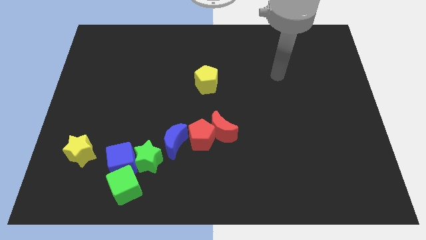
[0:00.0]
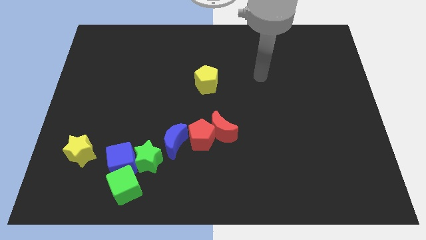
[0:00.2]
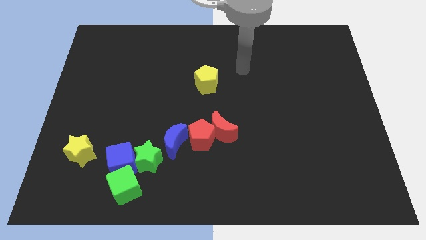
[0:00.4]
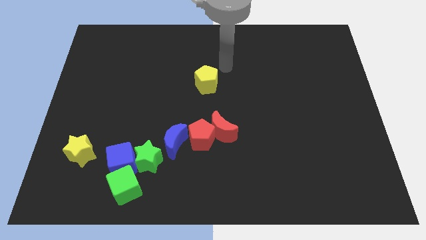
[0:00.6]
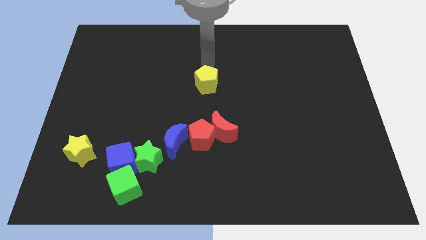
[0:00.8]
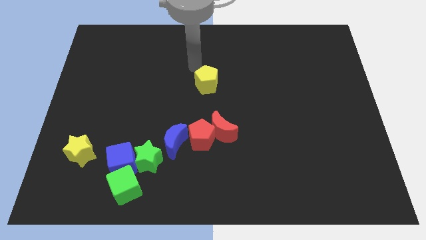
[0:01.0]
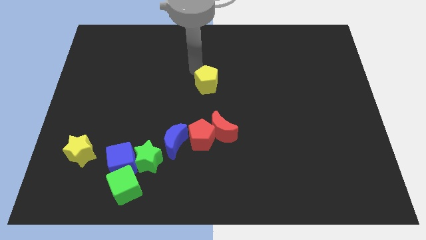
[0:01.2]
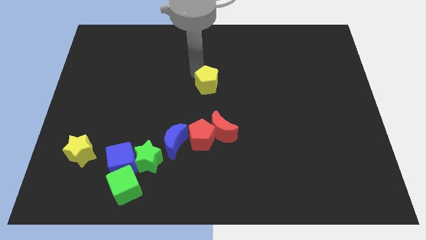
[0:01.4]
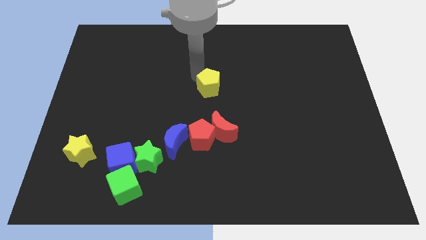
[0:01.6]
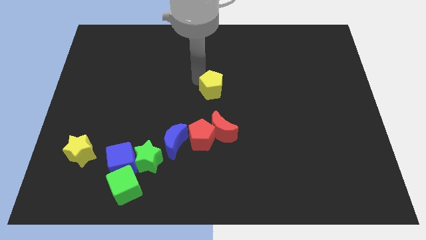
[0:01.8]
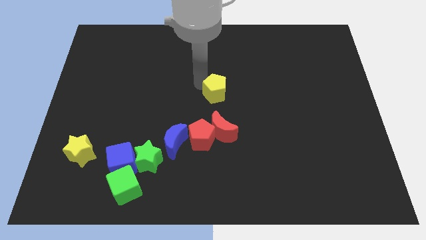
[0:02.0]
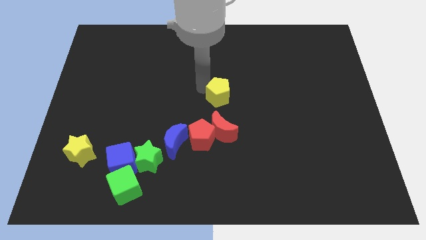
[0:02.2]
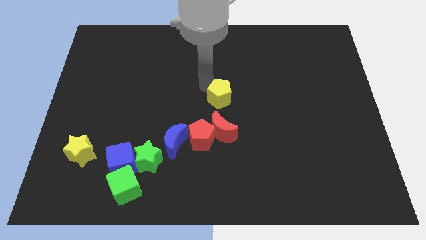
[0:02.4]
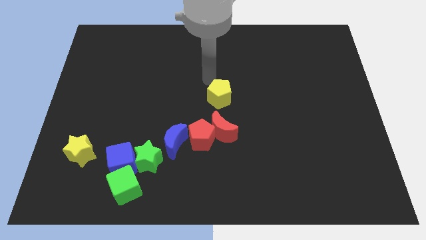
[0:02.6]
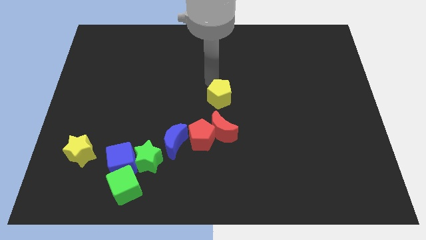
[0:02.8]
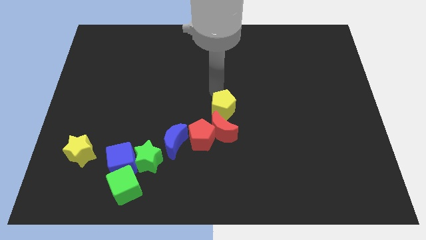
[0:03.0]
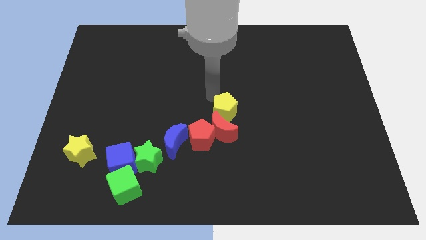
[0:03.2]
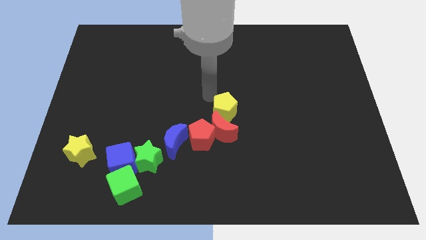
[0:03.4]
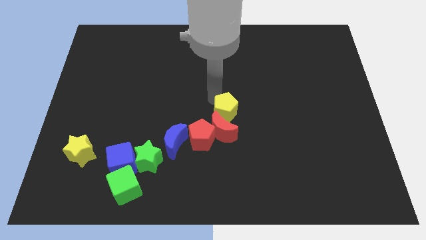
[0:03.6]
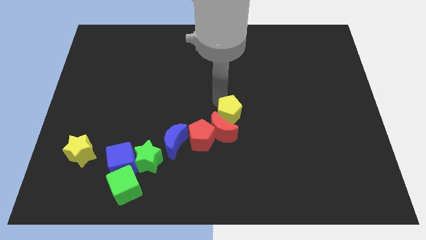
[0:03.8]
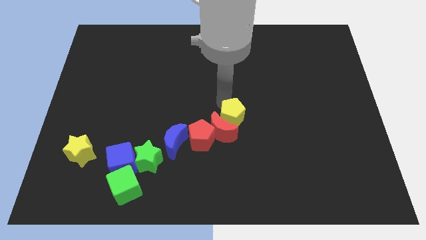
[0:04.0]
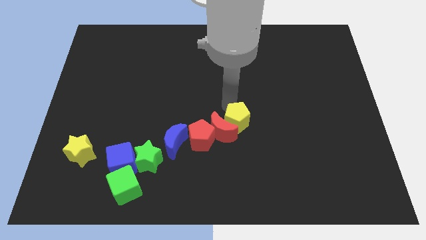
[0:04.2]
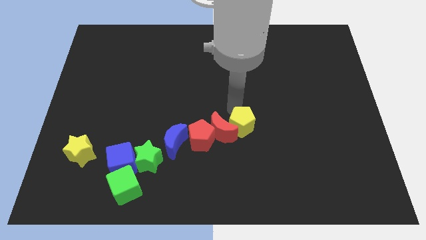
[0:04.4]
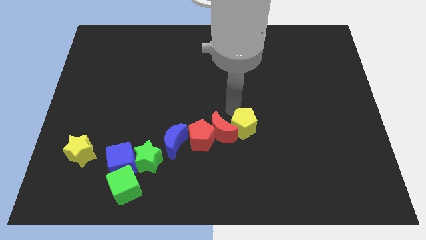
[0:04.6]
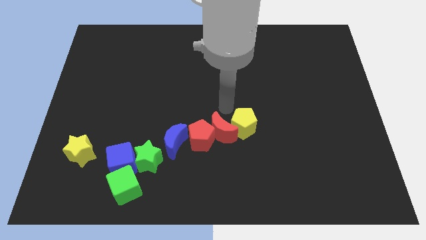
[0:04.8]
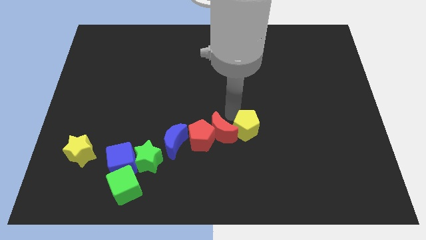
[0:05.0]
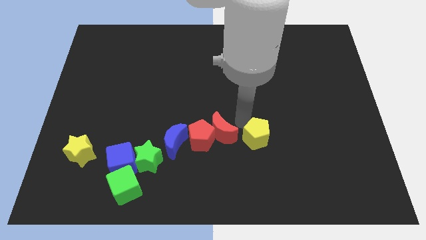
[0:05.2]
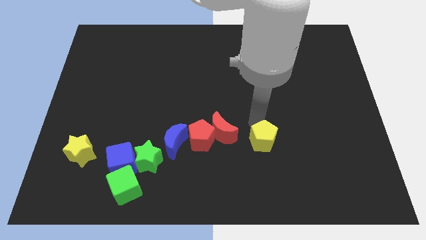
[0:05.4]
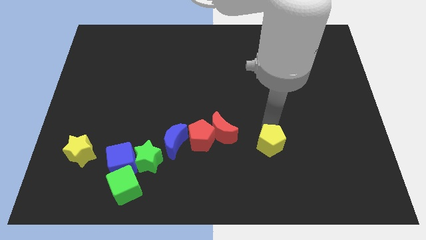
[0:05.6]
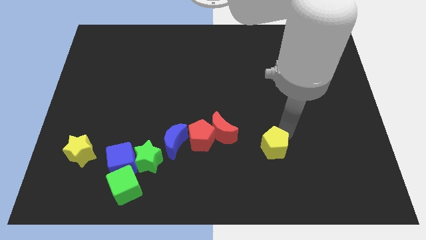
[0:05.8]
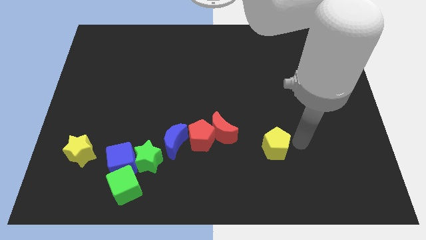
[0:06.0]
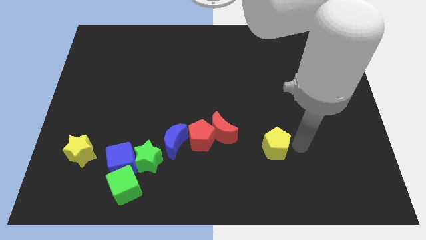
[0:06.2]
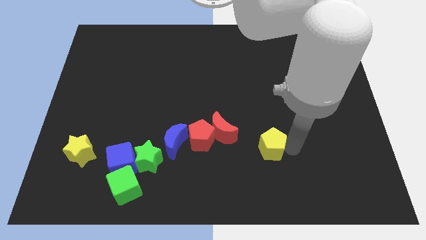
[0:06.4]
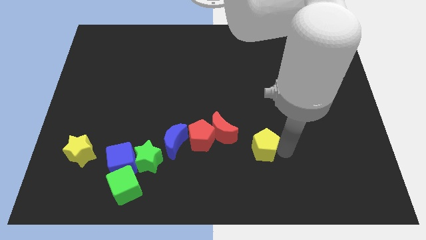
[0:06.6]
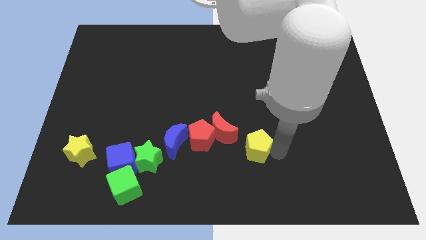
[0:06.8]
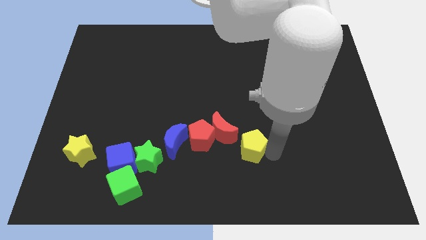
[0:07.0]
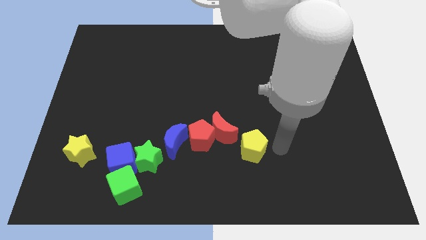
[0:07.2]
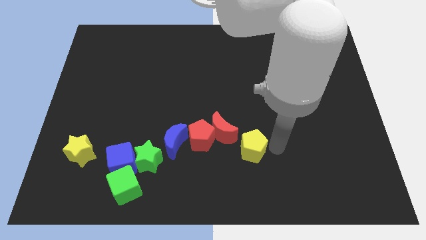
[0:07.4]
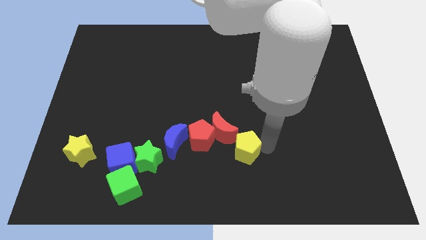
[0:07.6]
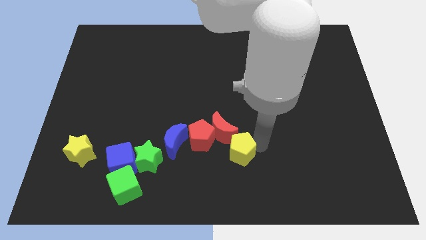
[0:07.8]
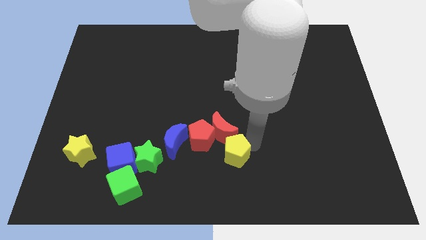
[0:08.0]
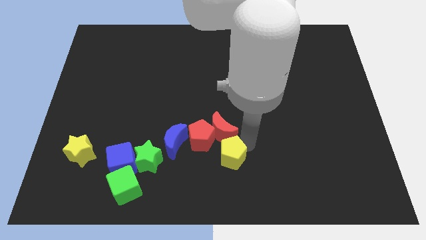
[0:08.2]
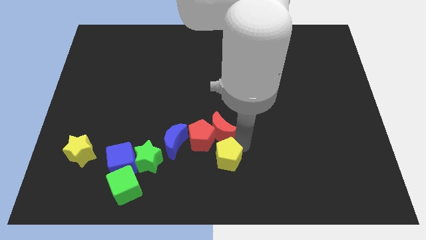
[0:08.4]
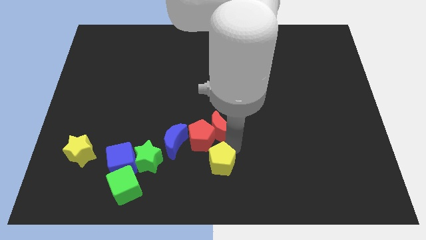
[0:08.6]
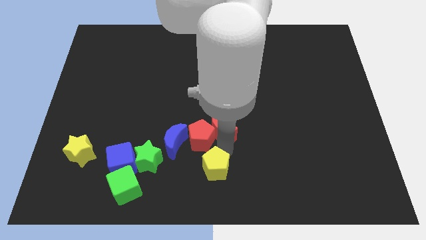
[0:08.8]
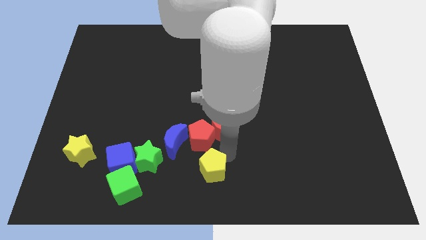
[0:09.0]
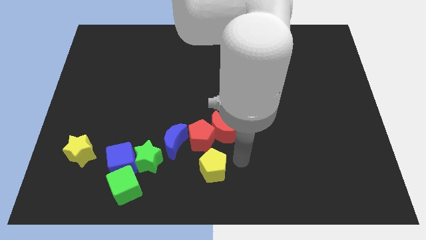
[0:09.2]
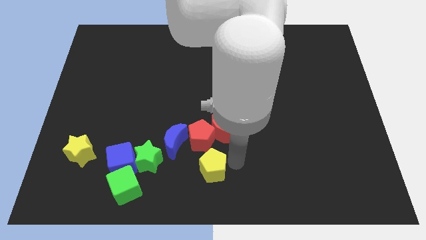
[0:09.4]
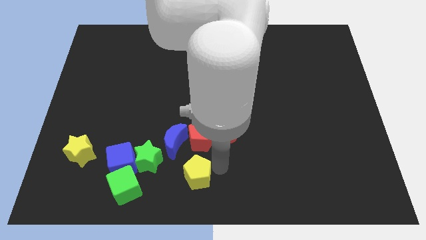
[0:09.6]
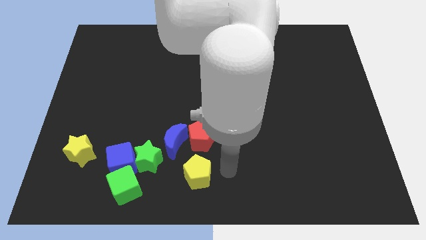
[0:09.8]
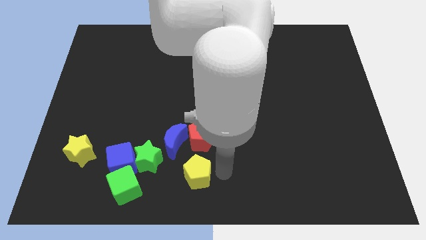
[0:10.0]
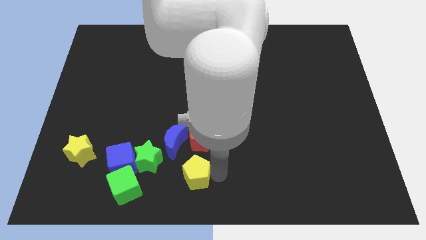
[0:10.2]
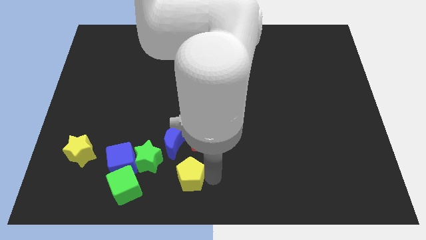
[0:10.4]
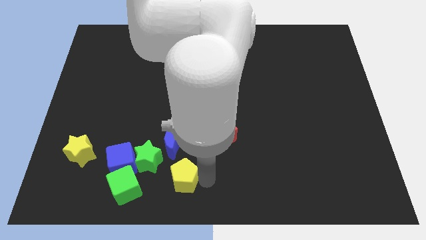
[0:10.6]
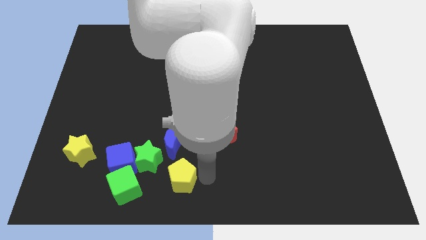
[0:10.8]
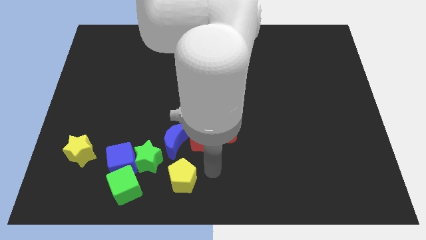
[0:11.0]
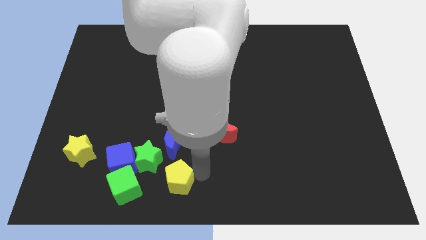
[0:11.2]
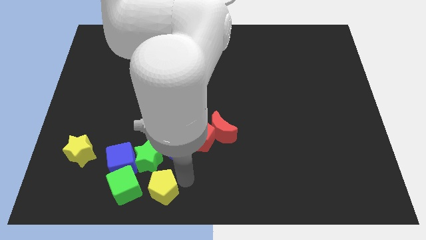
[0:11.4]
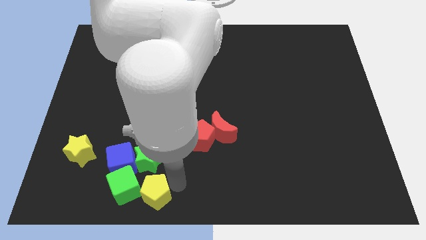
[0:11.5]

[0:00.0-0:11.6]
slide the yellow pentagon towards the green cube

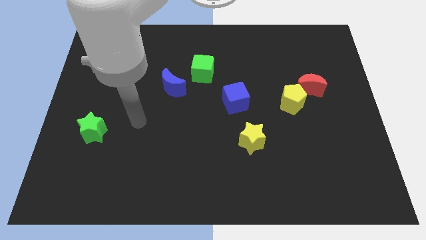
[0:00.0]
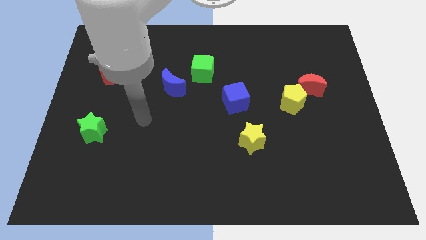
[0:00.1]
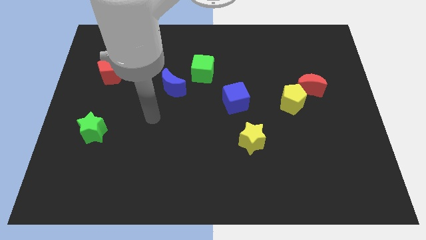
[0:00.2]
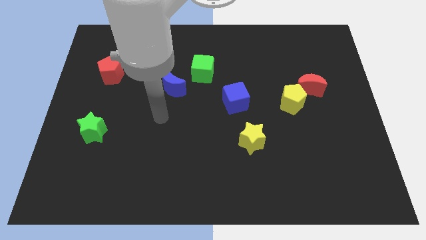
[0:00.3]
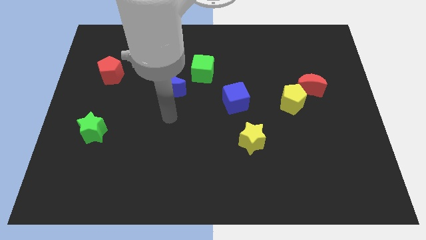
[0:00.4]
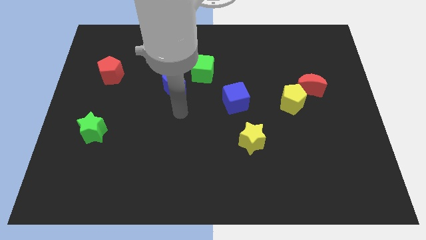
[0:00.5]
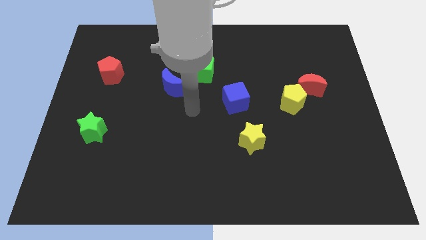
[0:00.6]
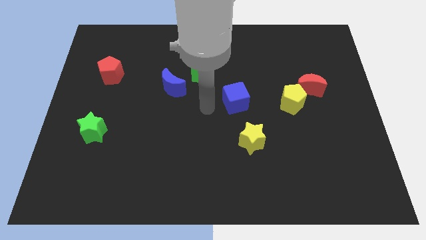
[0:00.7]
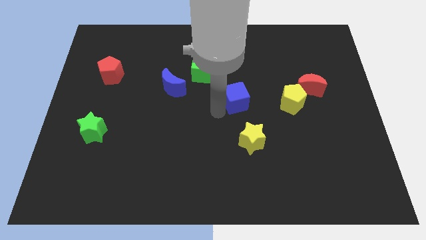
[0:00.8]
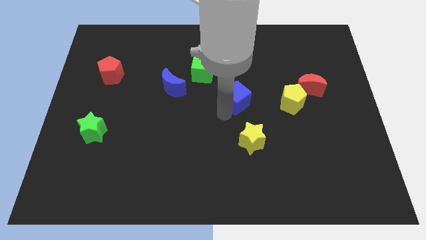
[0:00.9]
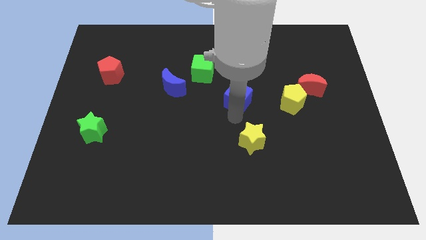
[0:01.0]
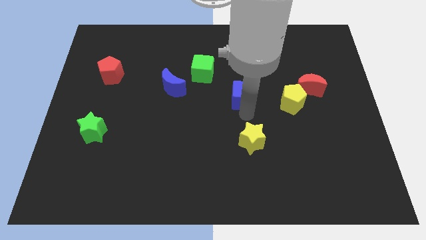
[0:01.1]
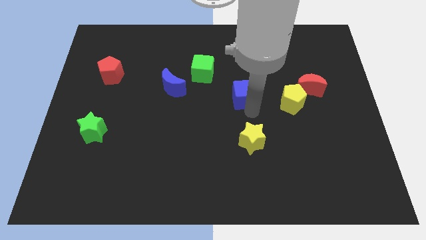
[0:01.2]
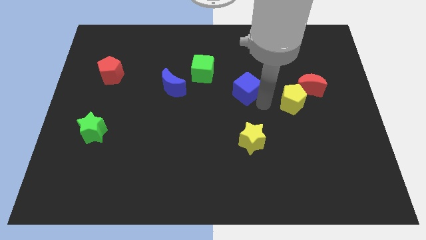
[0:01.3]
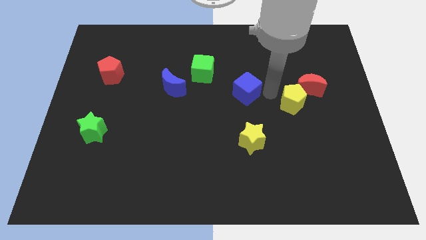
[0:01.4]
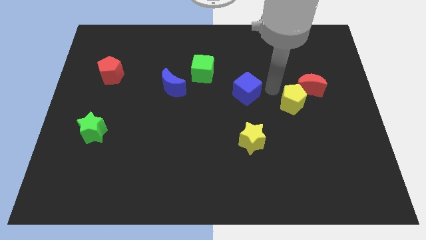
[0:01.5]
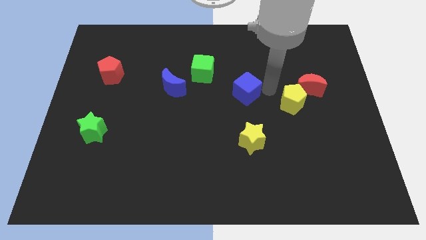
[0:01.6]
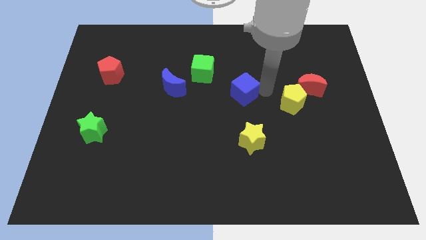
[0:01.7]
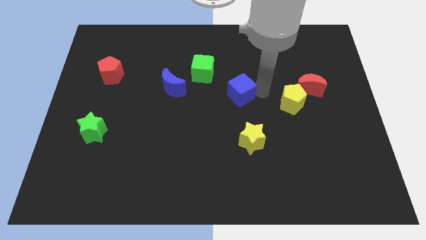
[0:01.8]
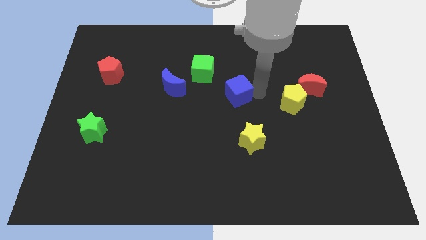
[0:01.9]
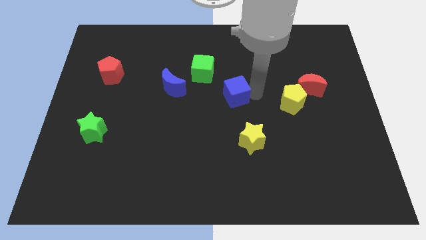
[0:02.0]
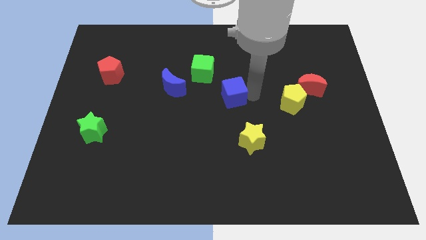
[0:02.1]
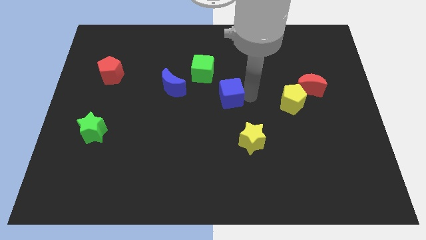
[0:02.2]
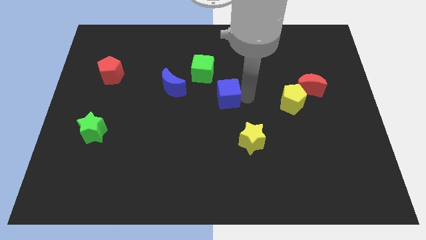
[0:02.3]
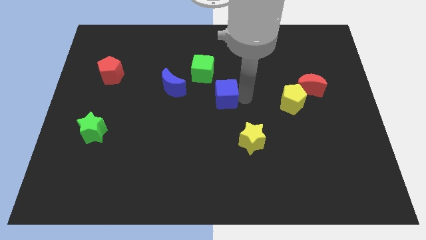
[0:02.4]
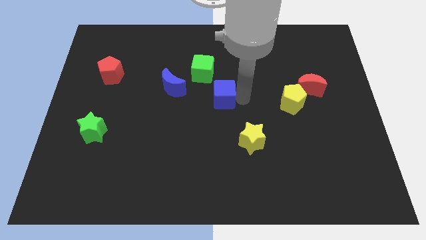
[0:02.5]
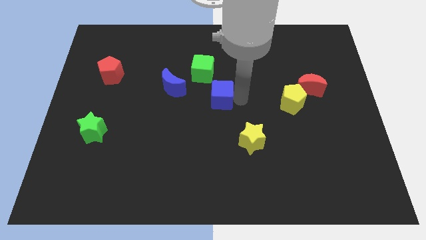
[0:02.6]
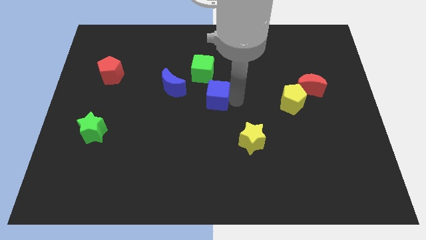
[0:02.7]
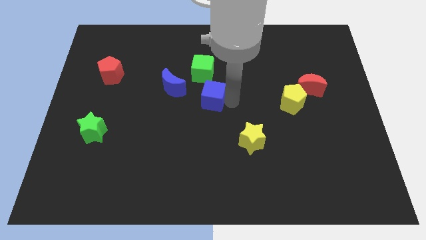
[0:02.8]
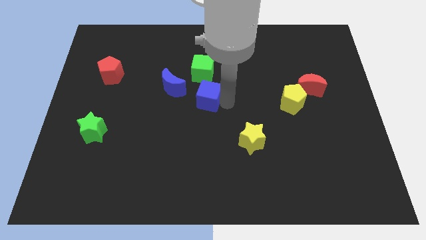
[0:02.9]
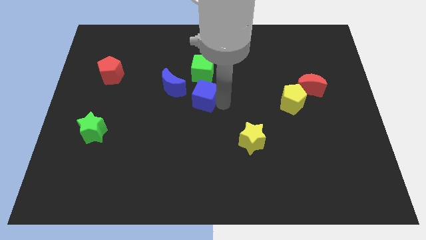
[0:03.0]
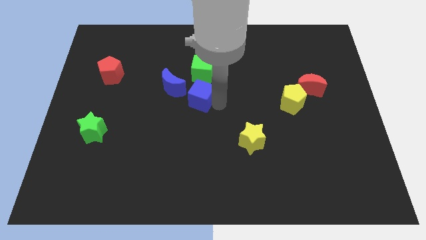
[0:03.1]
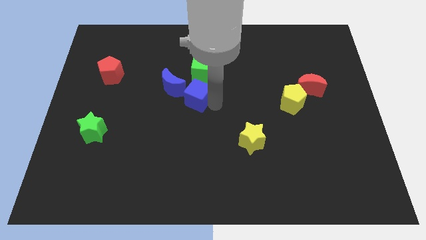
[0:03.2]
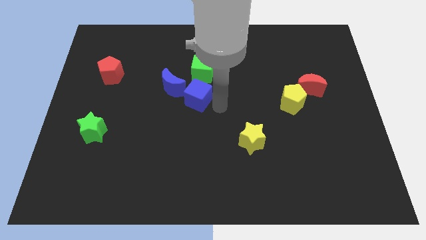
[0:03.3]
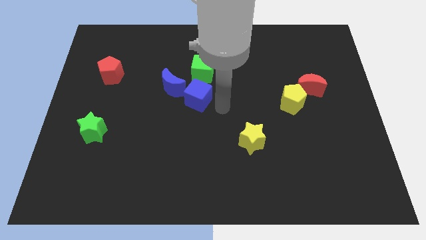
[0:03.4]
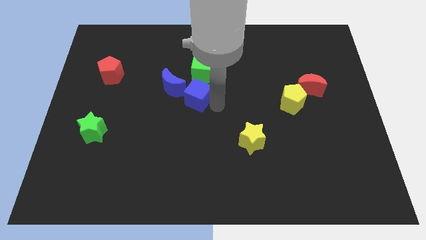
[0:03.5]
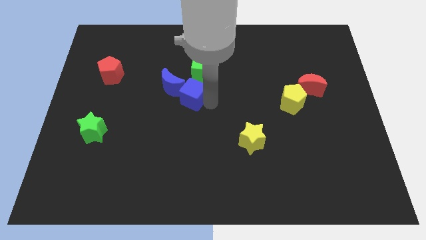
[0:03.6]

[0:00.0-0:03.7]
slide the blue cube to the blue moon
